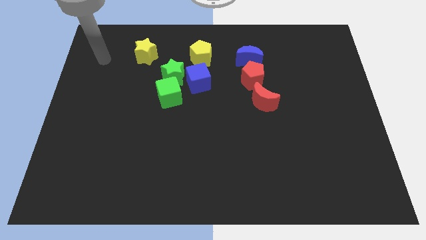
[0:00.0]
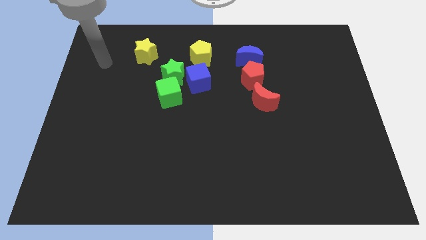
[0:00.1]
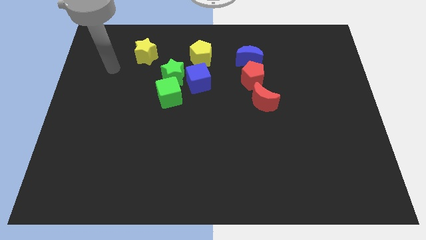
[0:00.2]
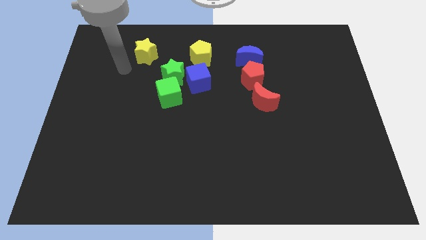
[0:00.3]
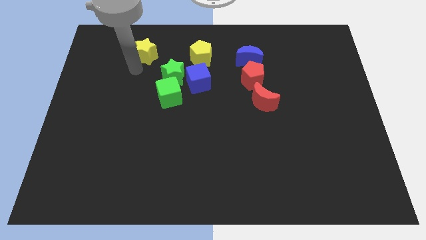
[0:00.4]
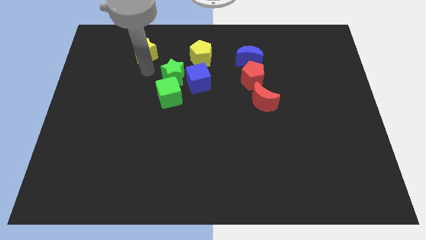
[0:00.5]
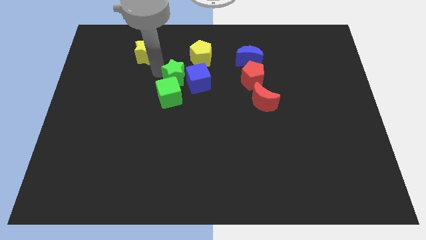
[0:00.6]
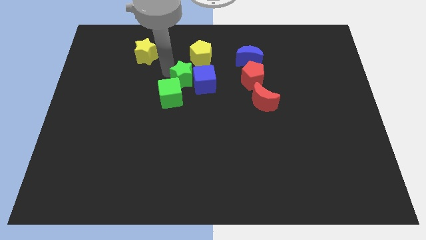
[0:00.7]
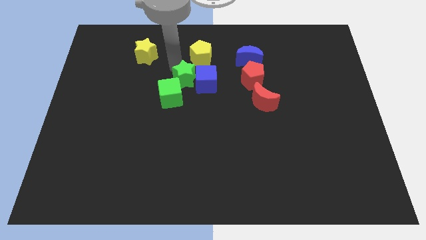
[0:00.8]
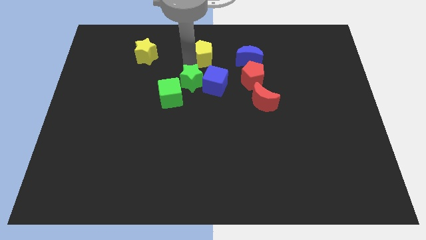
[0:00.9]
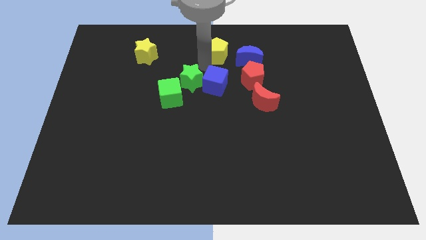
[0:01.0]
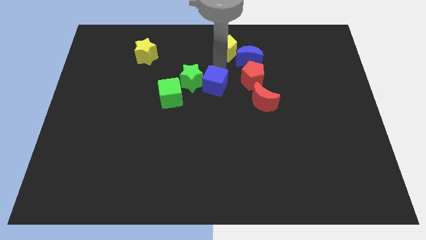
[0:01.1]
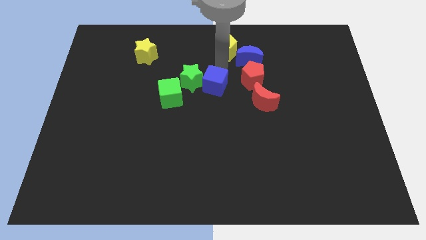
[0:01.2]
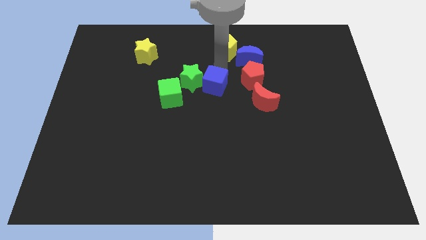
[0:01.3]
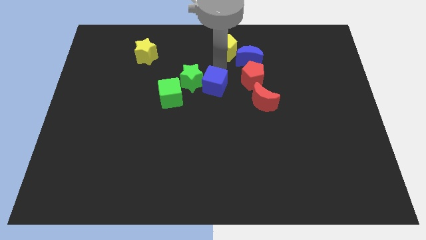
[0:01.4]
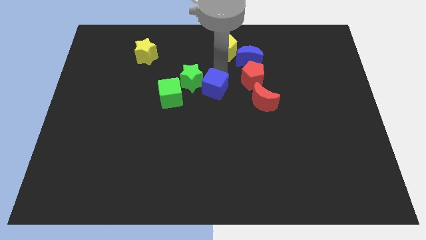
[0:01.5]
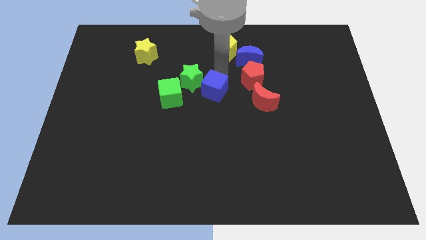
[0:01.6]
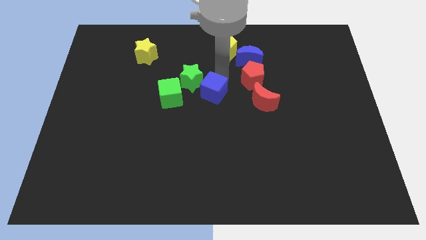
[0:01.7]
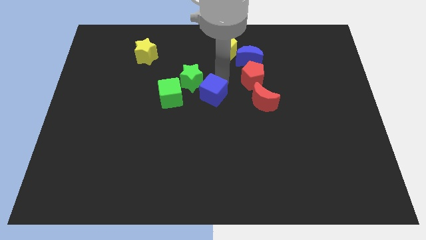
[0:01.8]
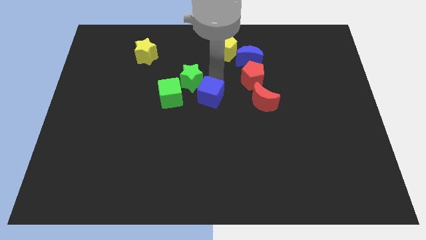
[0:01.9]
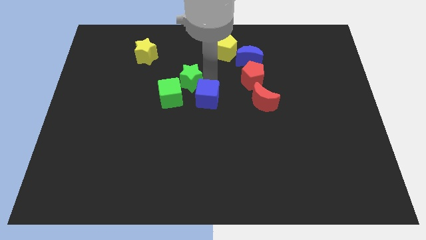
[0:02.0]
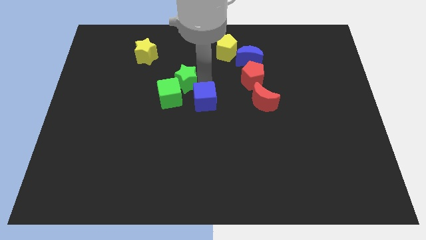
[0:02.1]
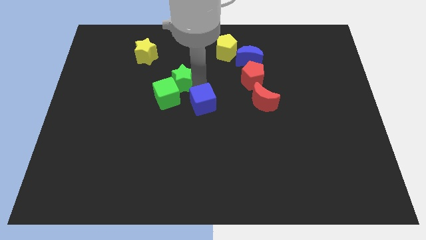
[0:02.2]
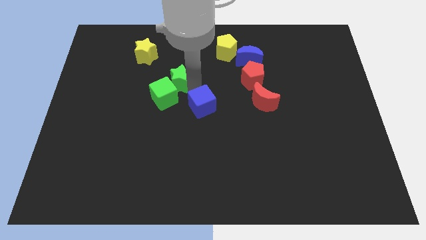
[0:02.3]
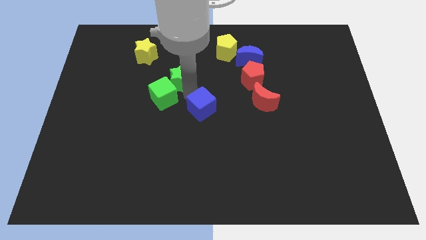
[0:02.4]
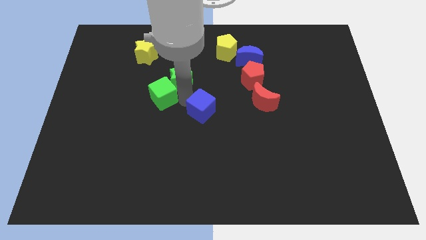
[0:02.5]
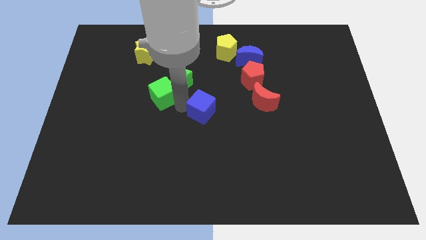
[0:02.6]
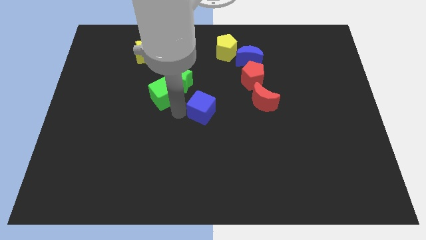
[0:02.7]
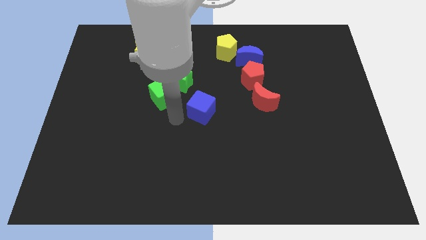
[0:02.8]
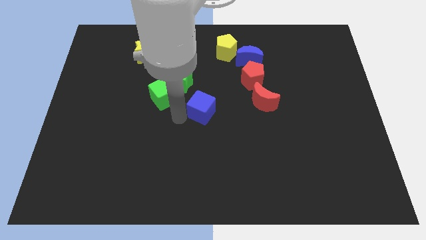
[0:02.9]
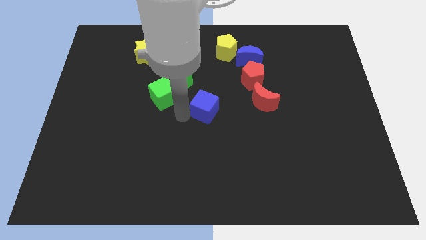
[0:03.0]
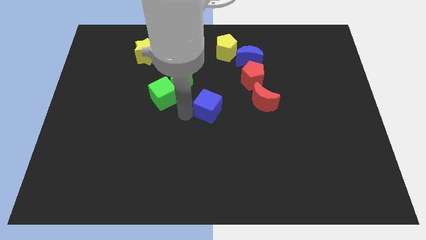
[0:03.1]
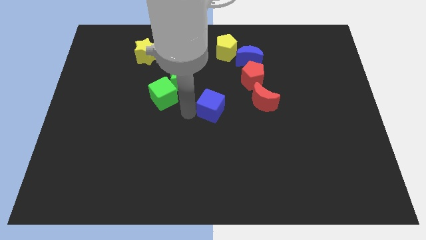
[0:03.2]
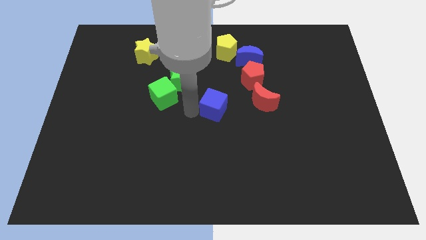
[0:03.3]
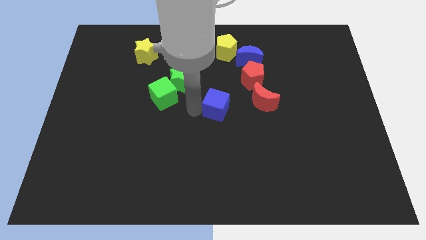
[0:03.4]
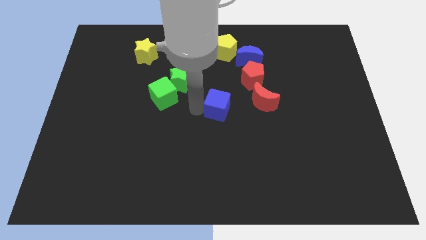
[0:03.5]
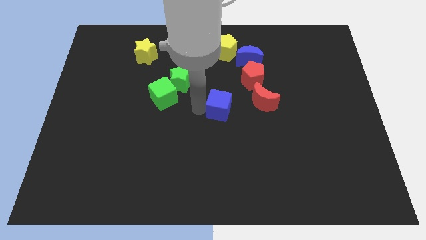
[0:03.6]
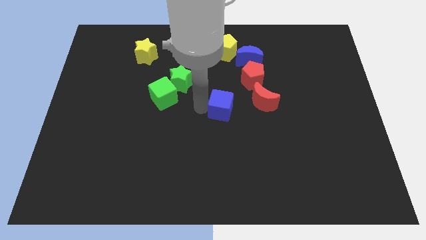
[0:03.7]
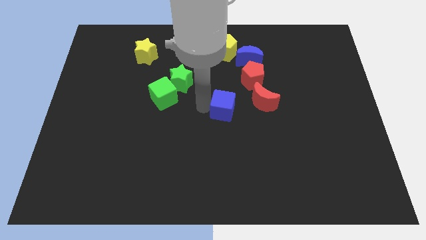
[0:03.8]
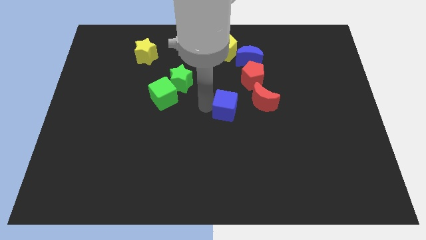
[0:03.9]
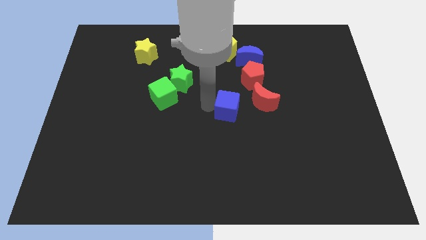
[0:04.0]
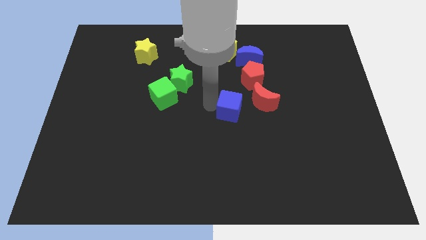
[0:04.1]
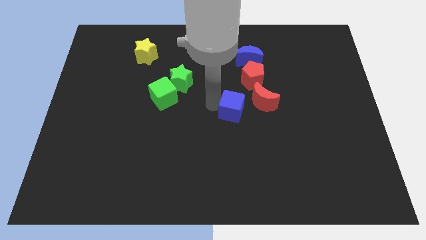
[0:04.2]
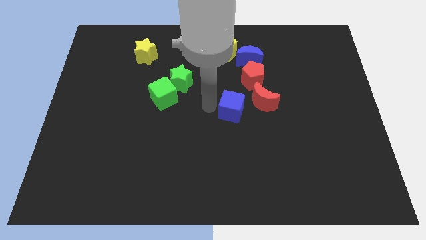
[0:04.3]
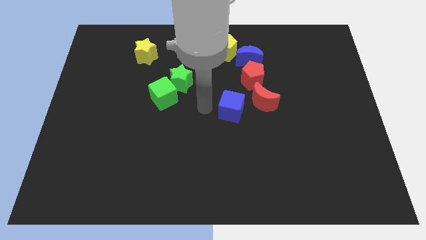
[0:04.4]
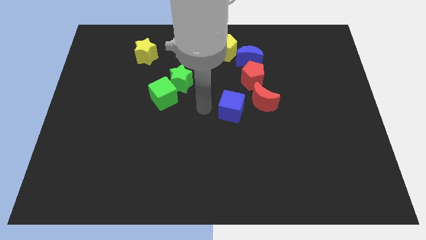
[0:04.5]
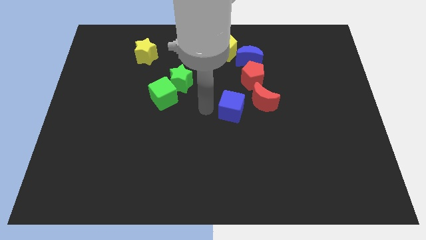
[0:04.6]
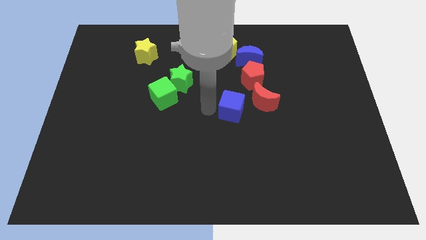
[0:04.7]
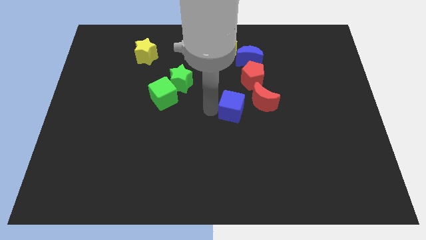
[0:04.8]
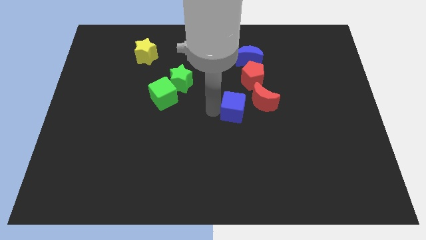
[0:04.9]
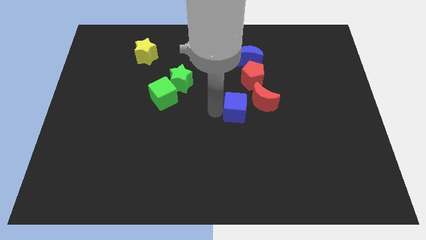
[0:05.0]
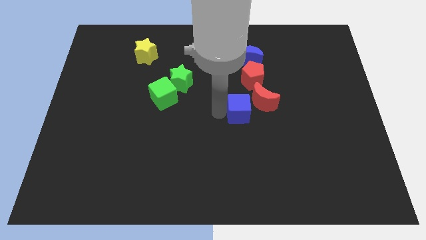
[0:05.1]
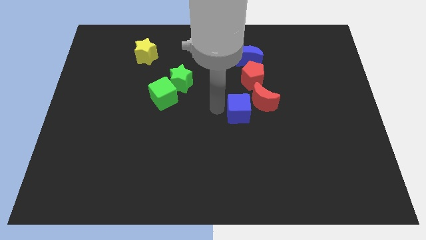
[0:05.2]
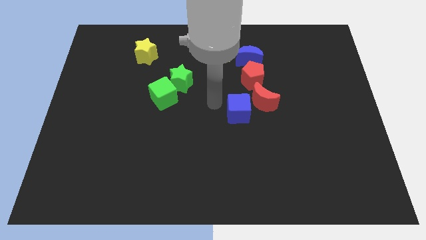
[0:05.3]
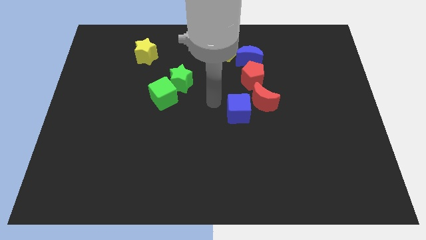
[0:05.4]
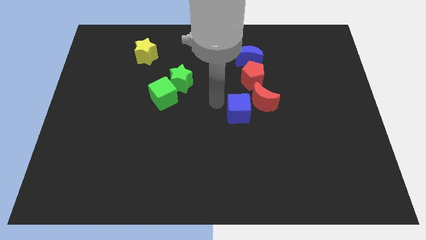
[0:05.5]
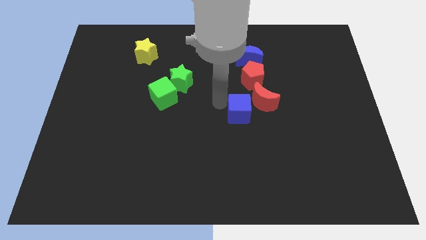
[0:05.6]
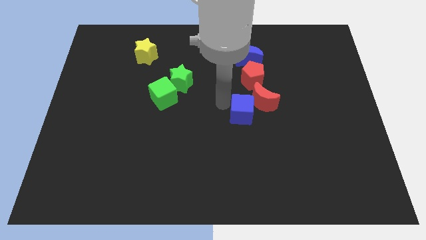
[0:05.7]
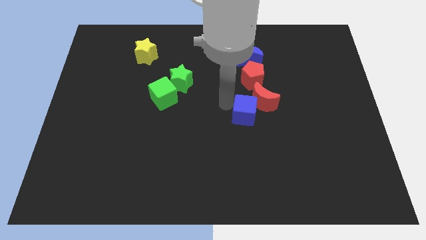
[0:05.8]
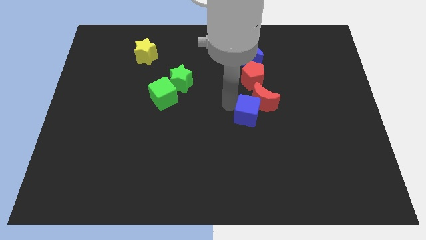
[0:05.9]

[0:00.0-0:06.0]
push the blue cube to the right somewhat

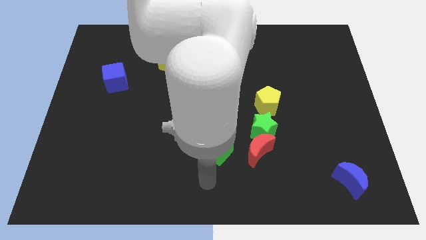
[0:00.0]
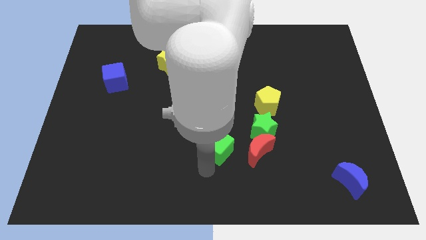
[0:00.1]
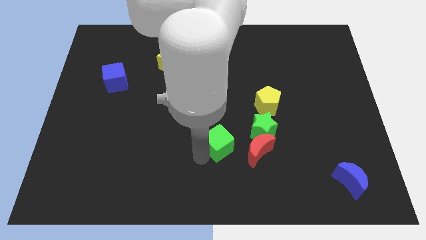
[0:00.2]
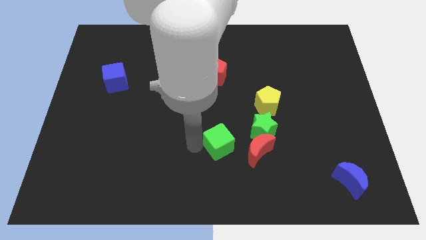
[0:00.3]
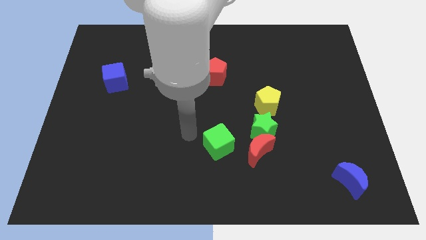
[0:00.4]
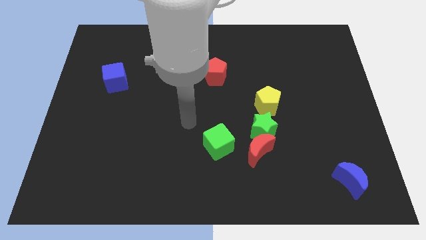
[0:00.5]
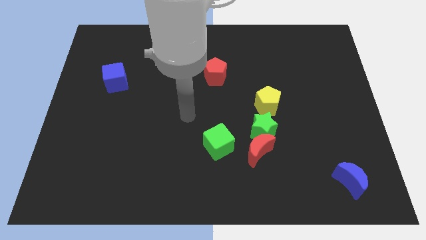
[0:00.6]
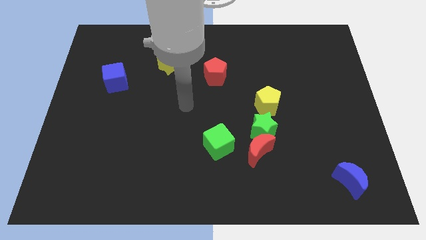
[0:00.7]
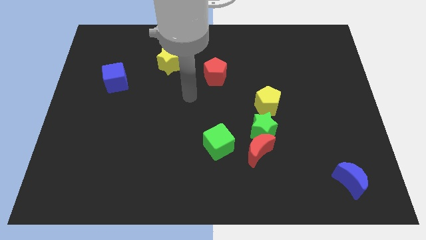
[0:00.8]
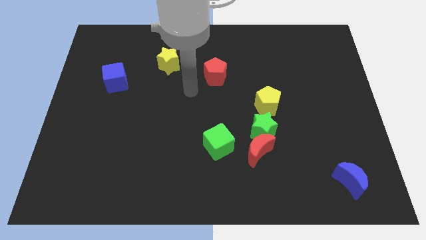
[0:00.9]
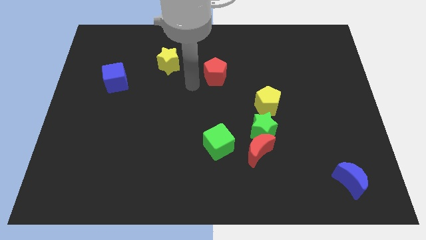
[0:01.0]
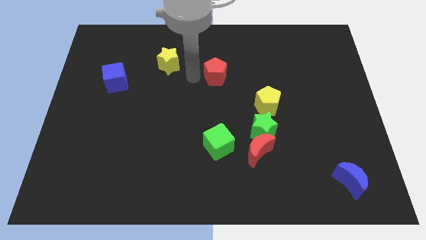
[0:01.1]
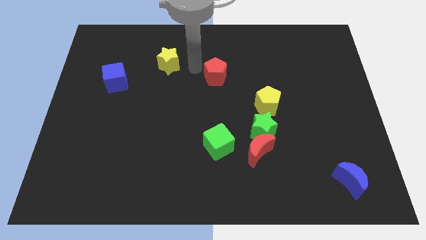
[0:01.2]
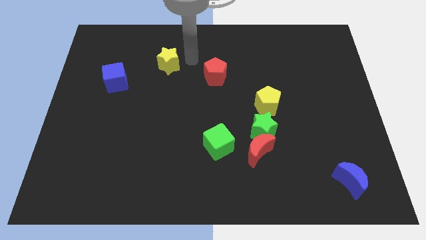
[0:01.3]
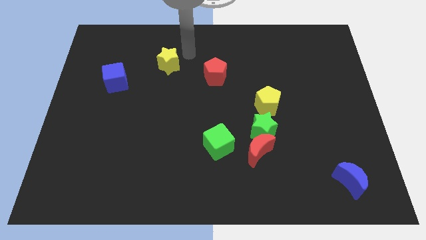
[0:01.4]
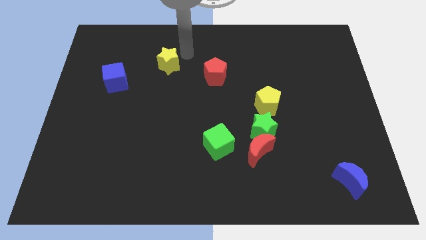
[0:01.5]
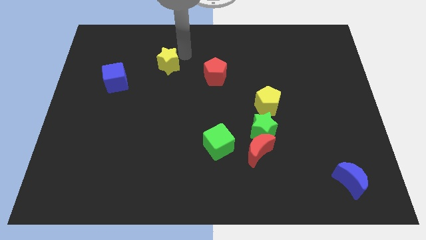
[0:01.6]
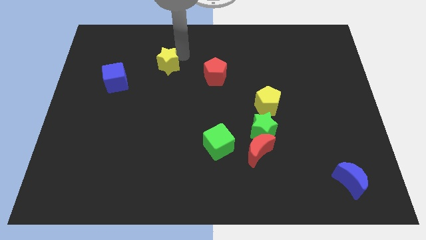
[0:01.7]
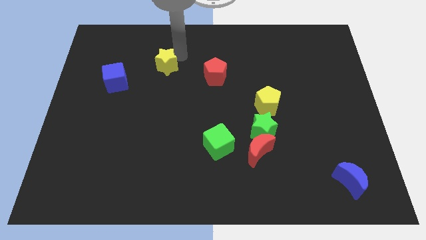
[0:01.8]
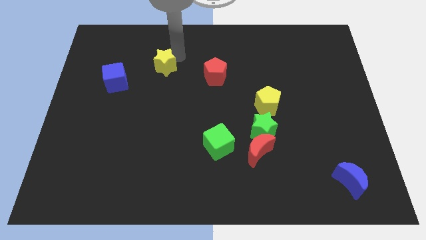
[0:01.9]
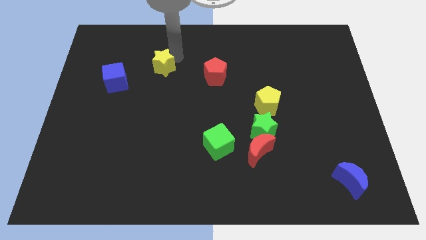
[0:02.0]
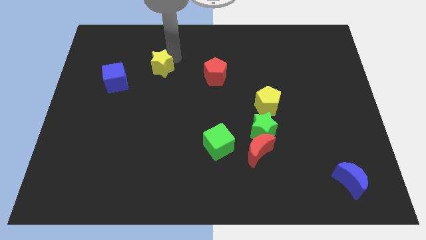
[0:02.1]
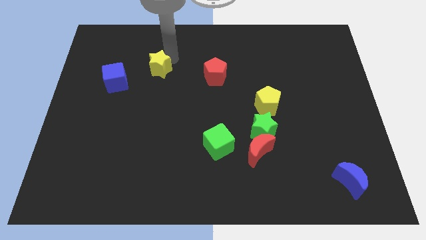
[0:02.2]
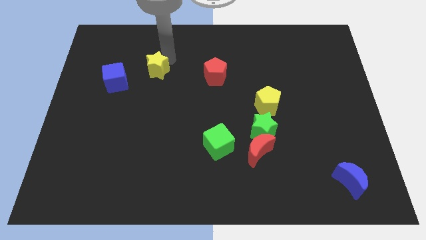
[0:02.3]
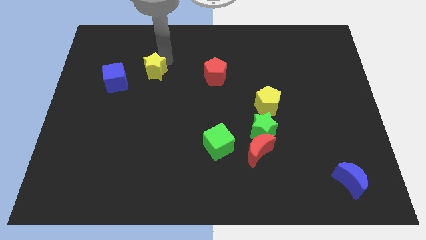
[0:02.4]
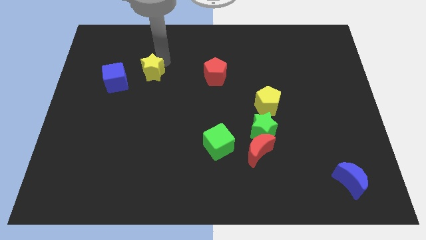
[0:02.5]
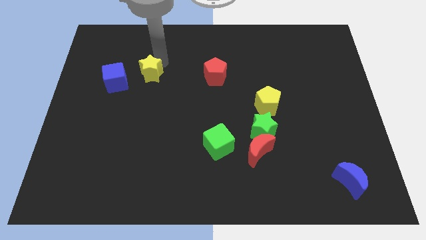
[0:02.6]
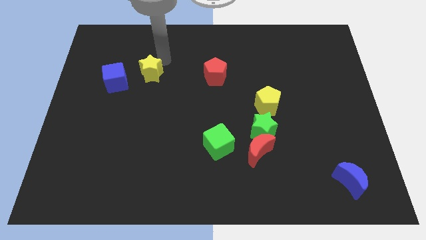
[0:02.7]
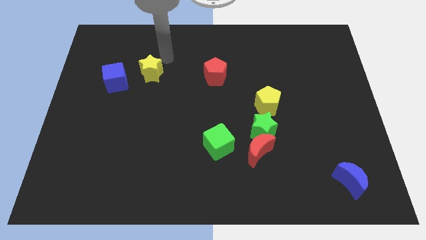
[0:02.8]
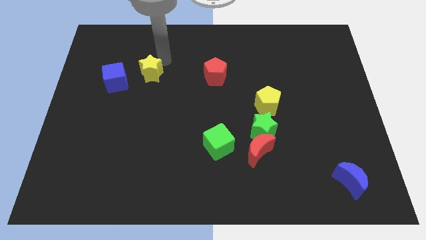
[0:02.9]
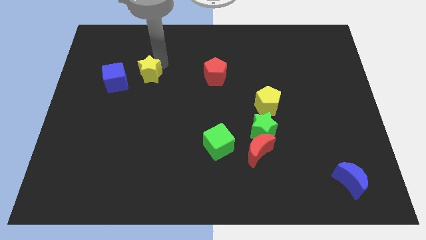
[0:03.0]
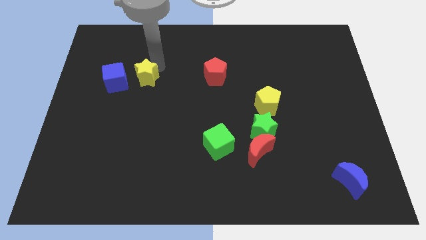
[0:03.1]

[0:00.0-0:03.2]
slightly push the yellow star diagonally downwards and to the left
